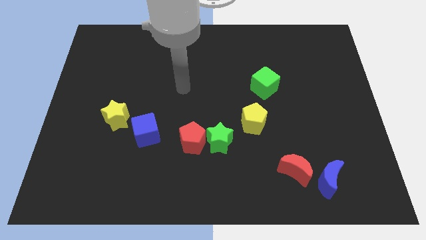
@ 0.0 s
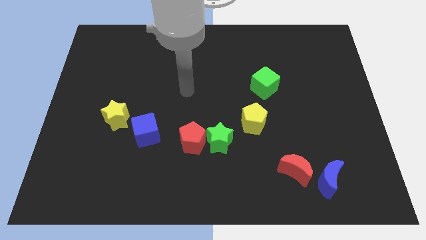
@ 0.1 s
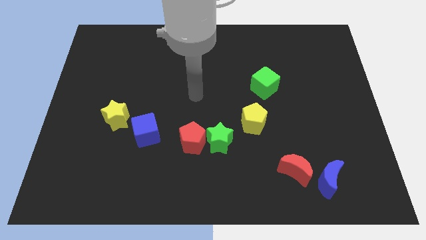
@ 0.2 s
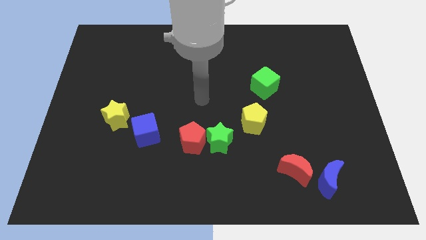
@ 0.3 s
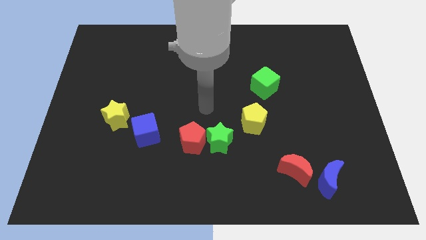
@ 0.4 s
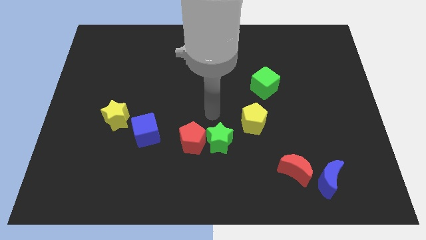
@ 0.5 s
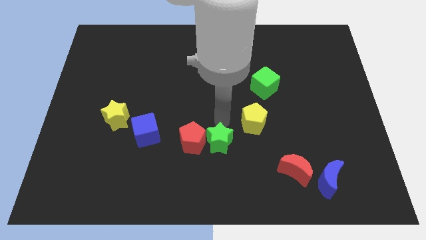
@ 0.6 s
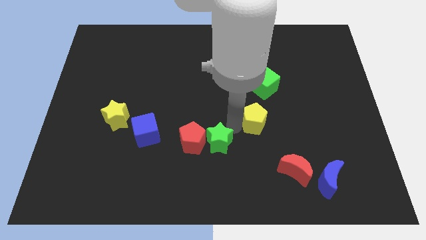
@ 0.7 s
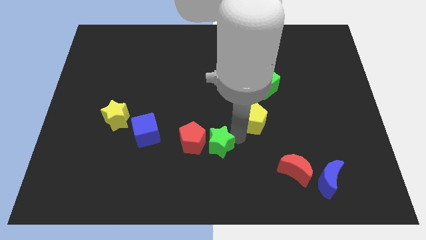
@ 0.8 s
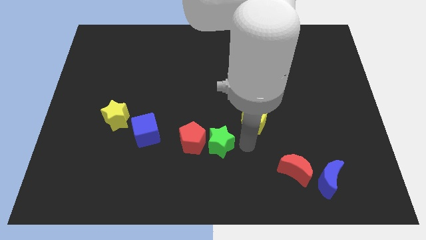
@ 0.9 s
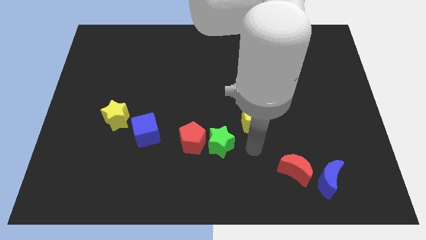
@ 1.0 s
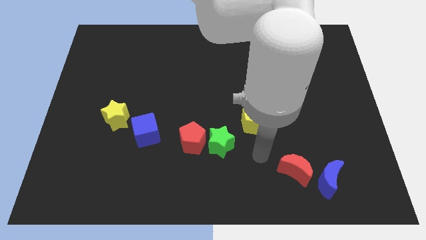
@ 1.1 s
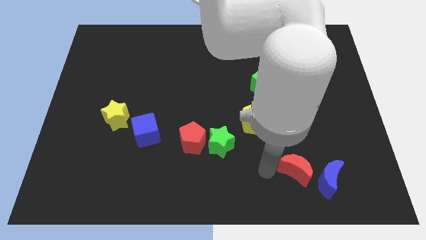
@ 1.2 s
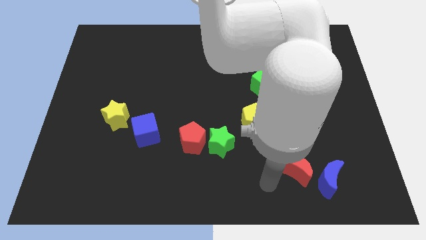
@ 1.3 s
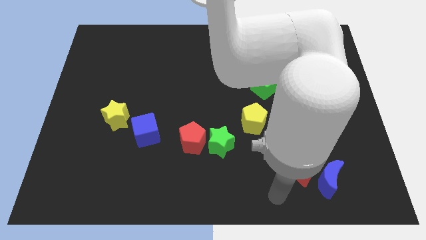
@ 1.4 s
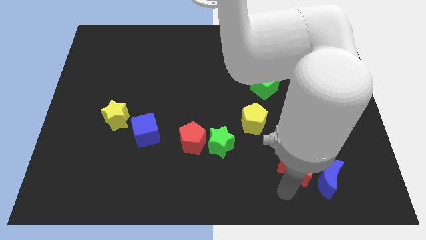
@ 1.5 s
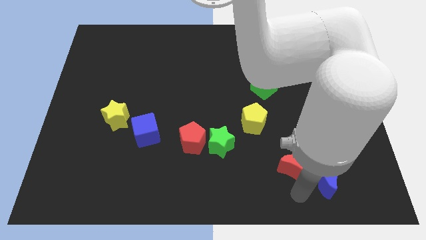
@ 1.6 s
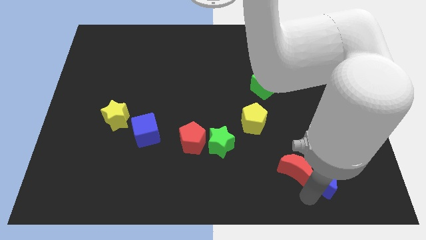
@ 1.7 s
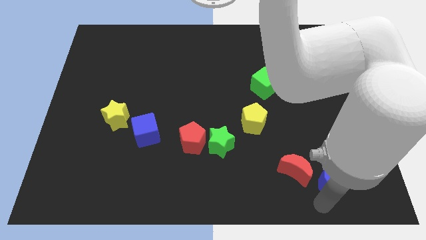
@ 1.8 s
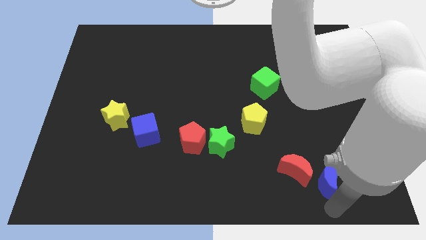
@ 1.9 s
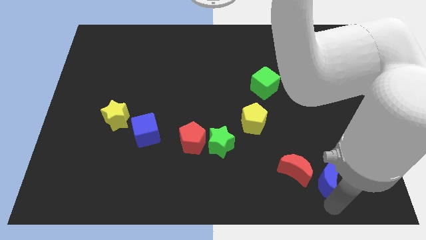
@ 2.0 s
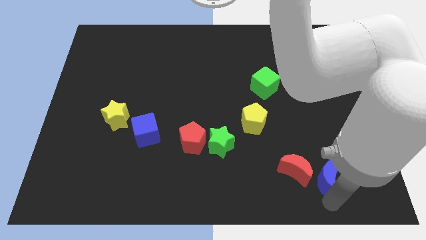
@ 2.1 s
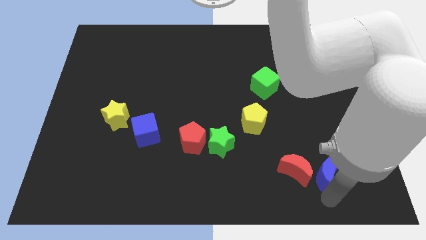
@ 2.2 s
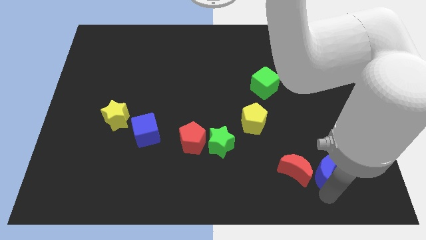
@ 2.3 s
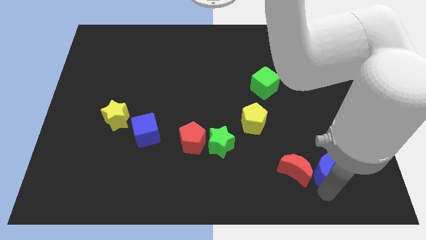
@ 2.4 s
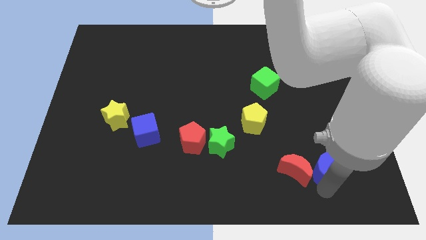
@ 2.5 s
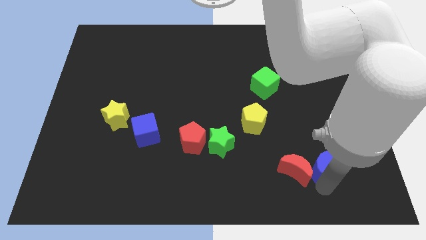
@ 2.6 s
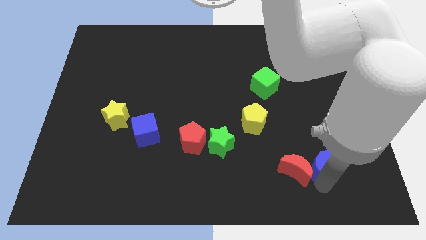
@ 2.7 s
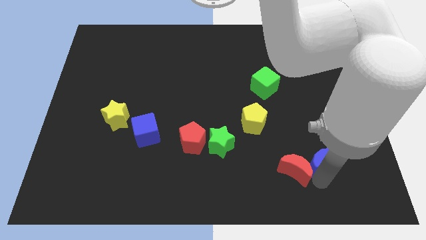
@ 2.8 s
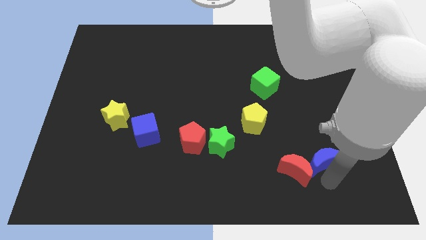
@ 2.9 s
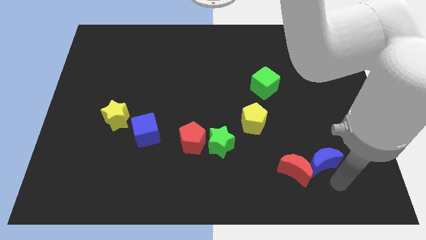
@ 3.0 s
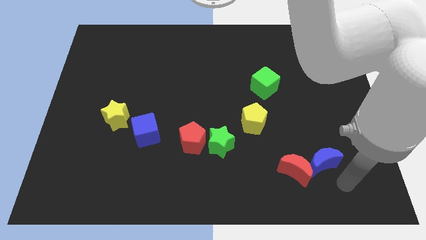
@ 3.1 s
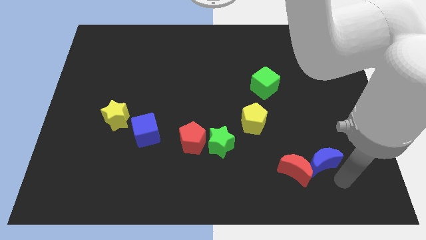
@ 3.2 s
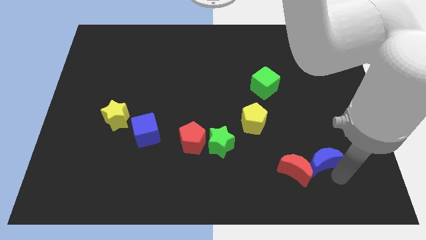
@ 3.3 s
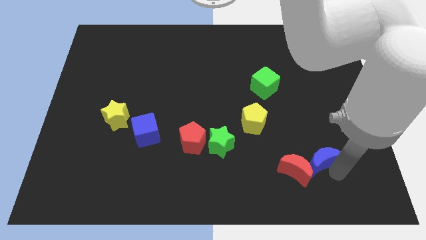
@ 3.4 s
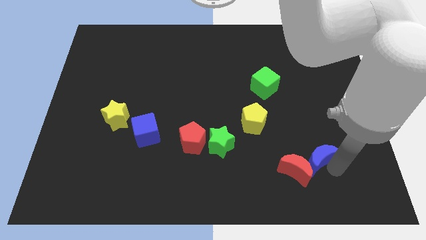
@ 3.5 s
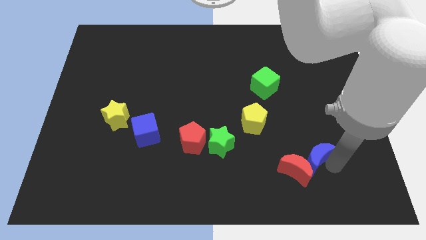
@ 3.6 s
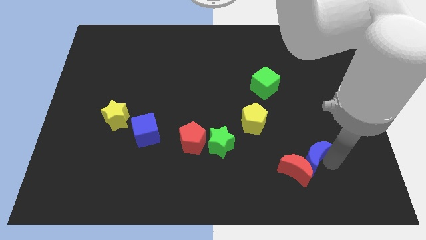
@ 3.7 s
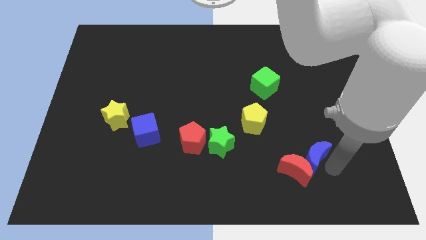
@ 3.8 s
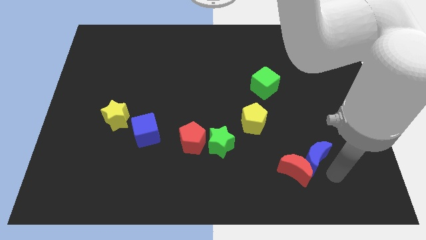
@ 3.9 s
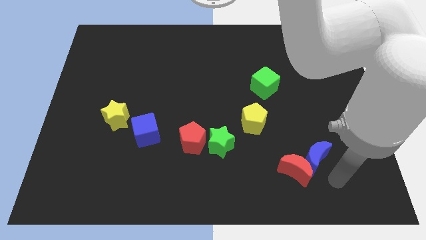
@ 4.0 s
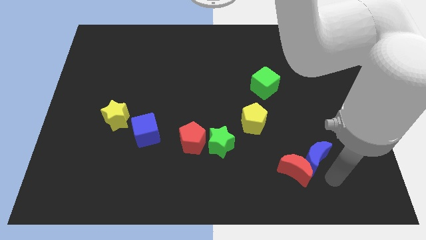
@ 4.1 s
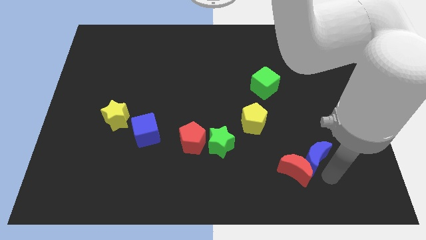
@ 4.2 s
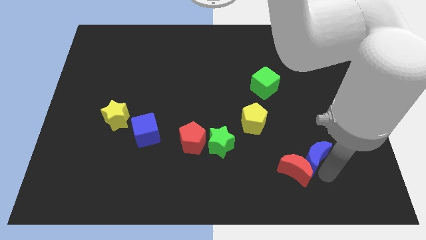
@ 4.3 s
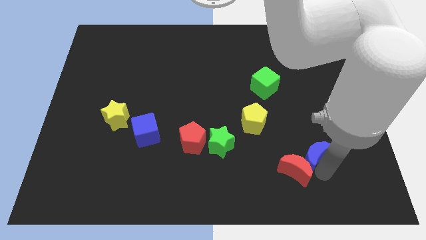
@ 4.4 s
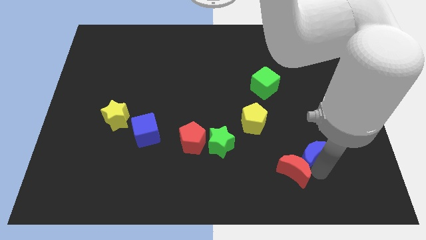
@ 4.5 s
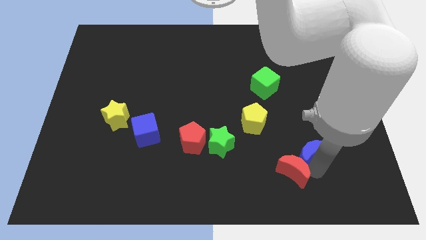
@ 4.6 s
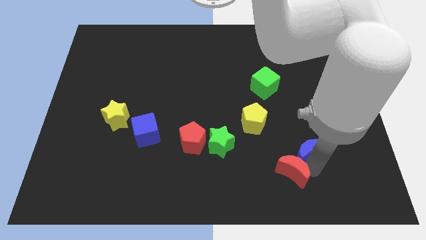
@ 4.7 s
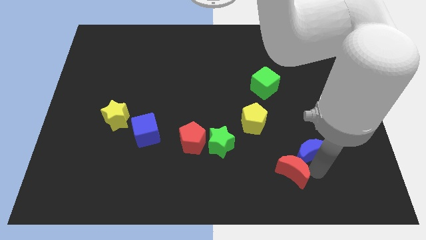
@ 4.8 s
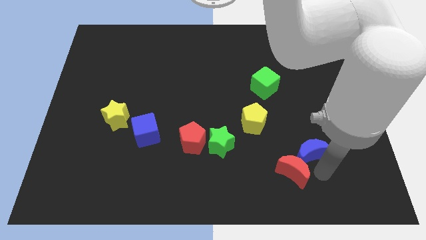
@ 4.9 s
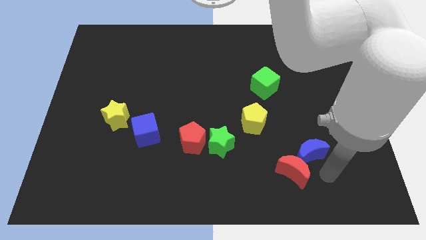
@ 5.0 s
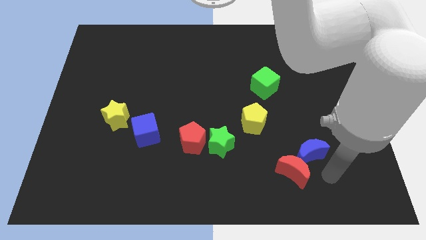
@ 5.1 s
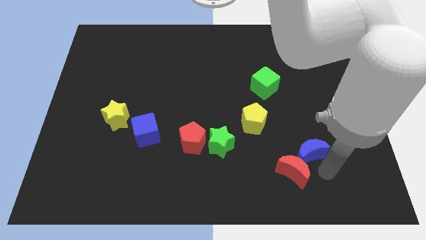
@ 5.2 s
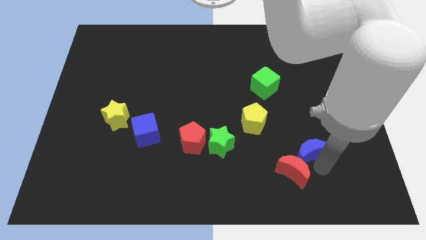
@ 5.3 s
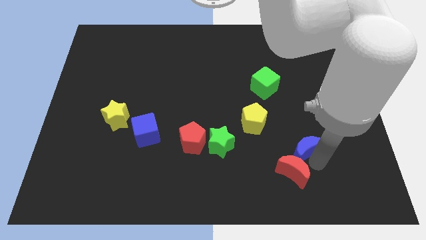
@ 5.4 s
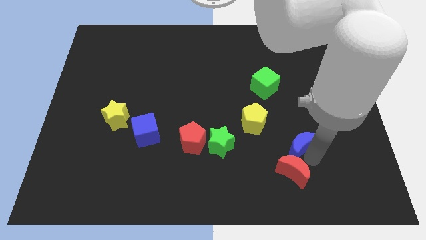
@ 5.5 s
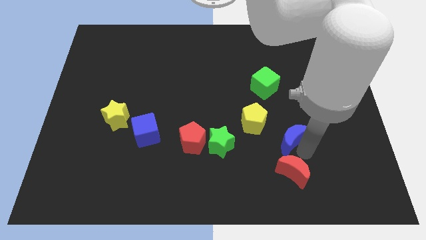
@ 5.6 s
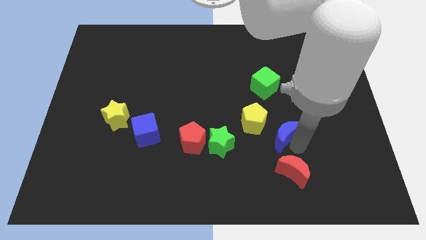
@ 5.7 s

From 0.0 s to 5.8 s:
slide the blue moon below the green cube

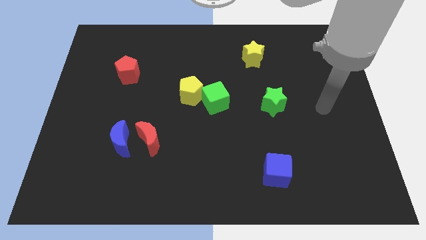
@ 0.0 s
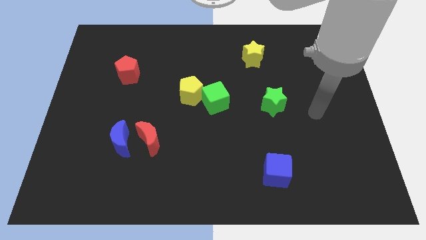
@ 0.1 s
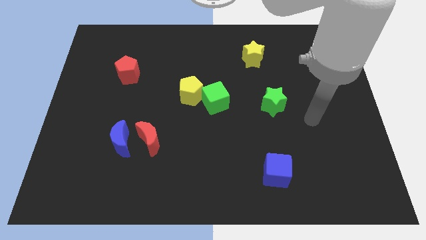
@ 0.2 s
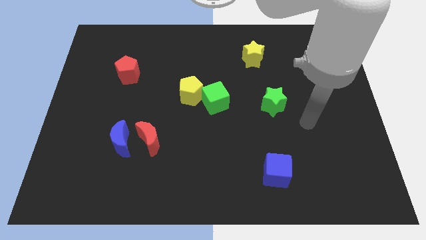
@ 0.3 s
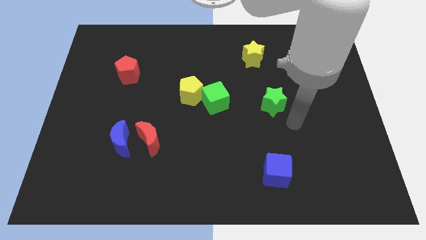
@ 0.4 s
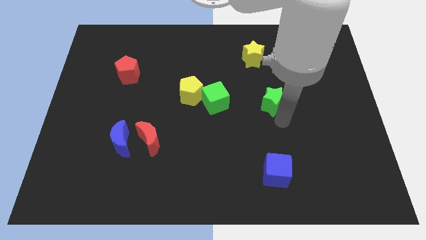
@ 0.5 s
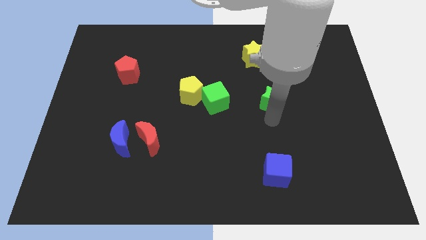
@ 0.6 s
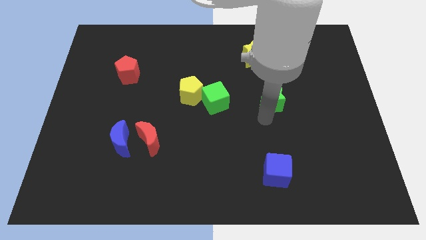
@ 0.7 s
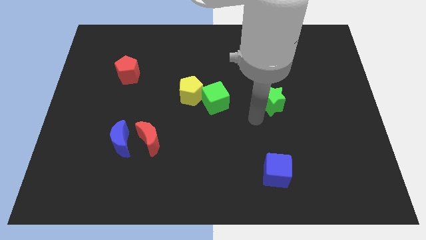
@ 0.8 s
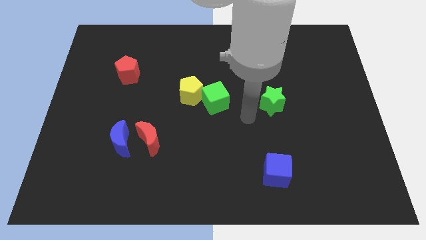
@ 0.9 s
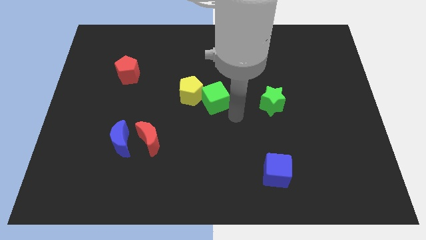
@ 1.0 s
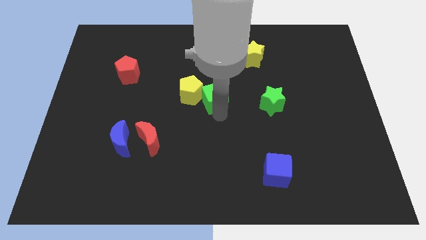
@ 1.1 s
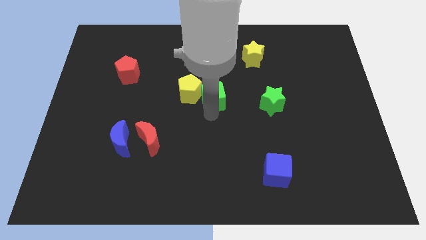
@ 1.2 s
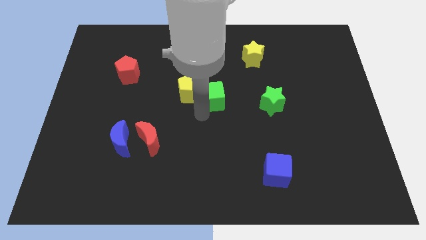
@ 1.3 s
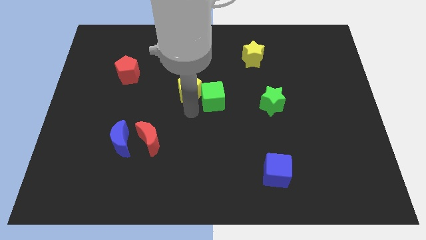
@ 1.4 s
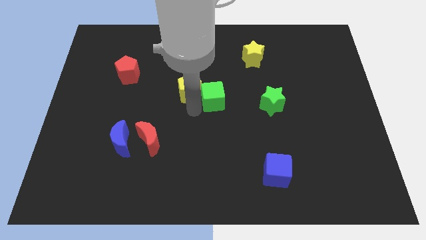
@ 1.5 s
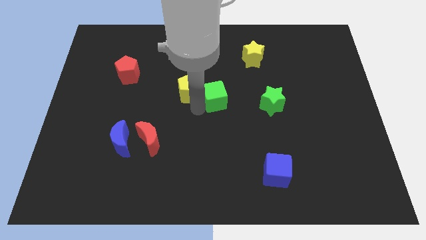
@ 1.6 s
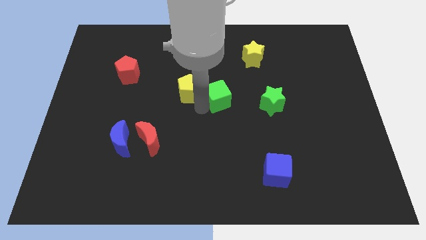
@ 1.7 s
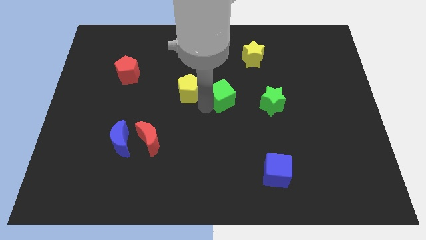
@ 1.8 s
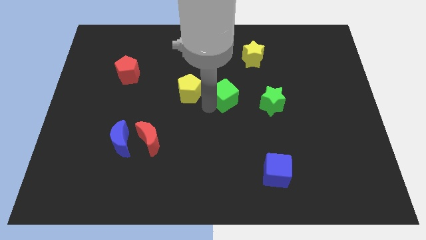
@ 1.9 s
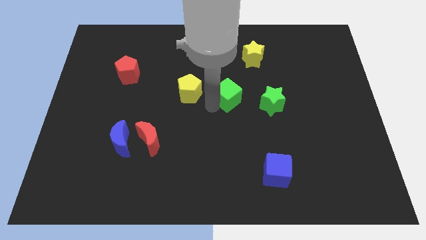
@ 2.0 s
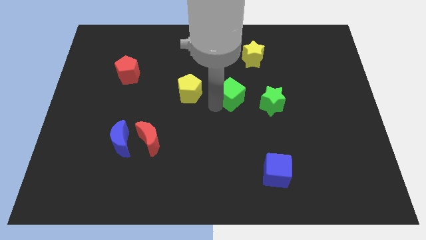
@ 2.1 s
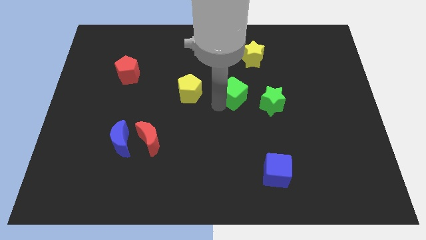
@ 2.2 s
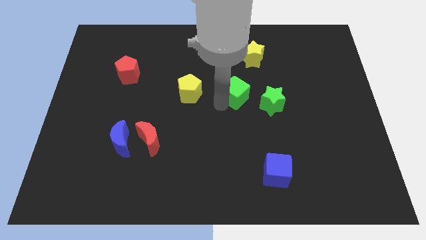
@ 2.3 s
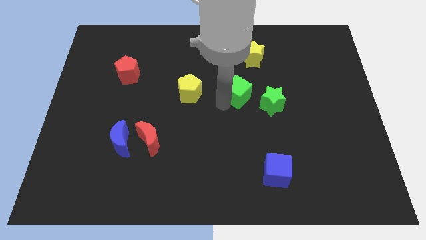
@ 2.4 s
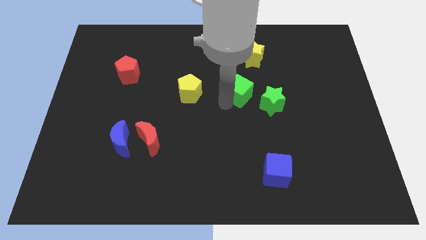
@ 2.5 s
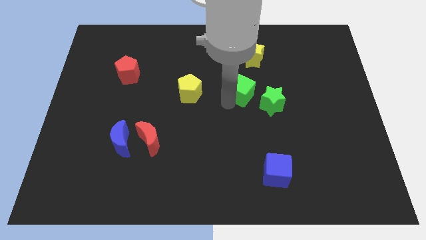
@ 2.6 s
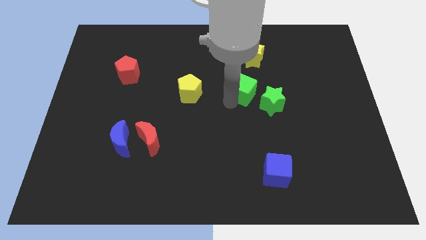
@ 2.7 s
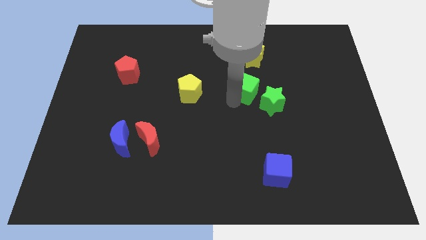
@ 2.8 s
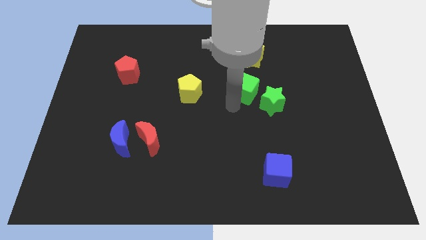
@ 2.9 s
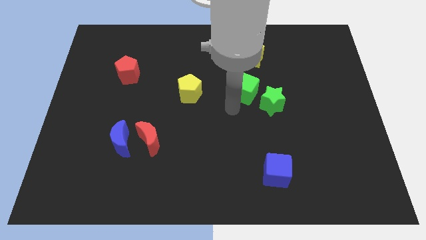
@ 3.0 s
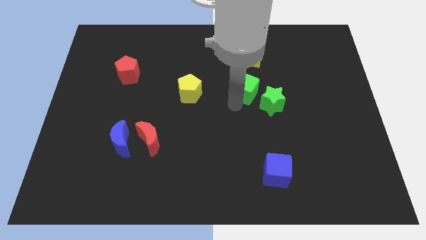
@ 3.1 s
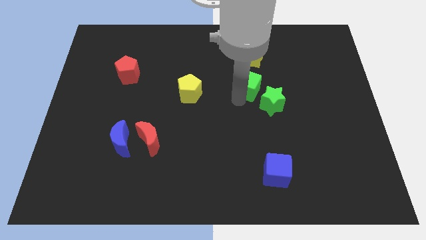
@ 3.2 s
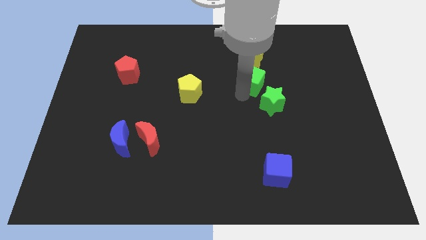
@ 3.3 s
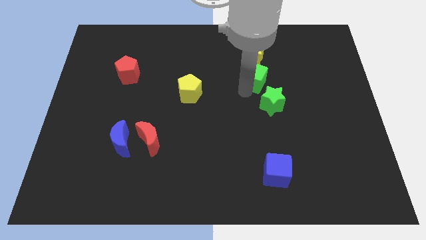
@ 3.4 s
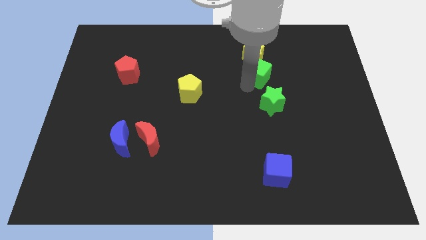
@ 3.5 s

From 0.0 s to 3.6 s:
put the green cube to the bottom right side of the yellow star
